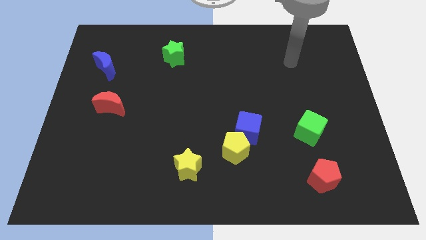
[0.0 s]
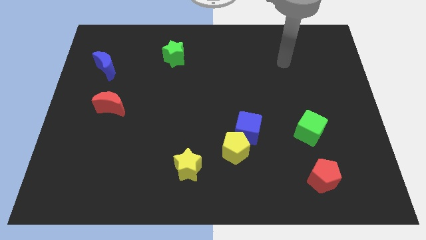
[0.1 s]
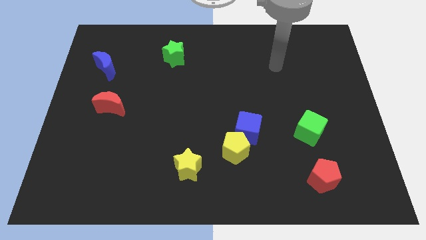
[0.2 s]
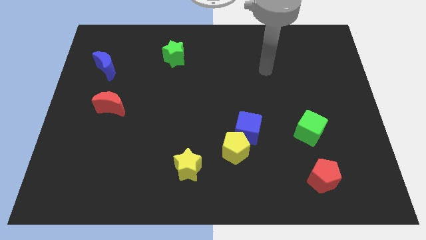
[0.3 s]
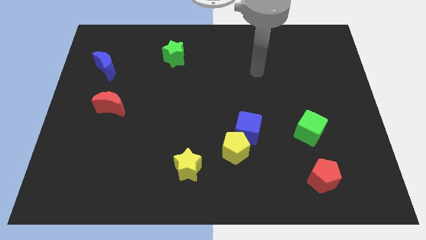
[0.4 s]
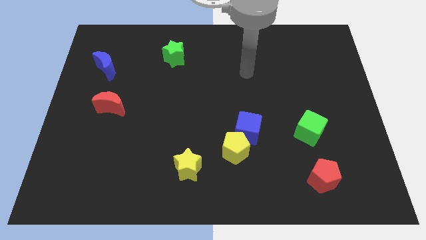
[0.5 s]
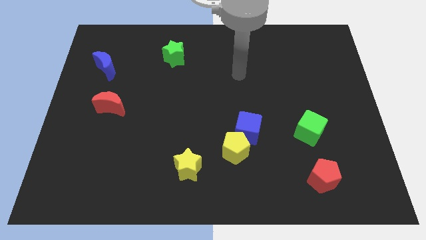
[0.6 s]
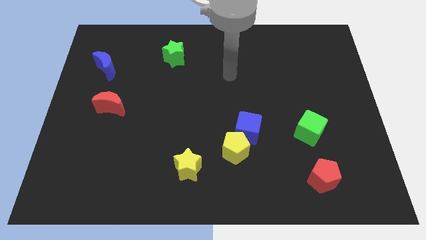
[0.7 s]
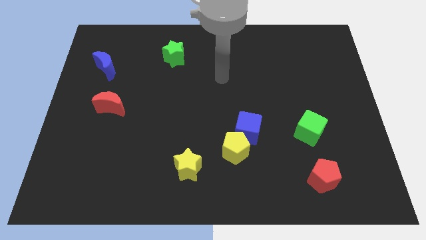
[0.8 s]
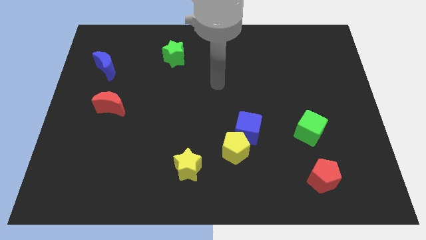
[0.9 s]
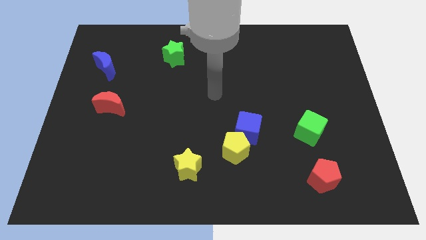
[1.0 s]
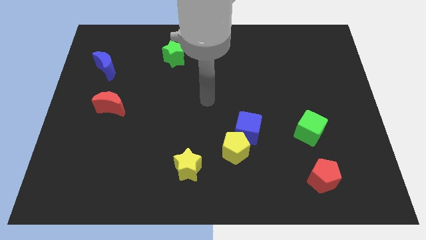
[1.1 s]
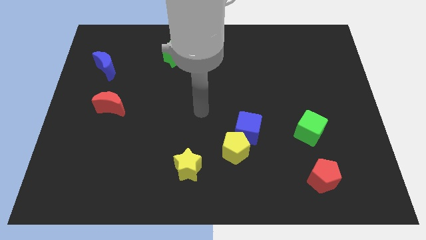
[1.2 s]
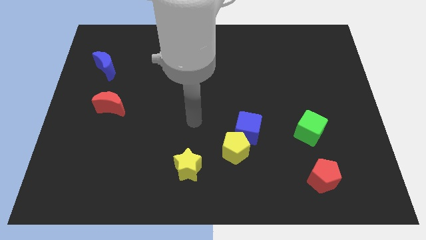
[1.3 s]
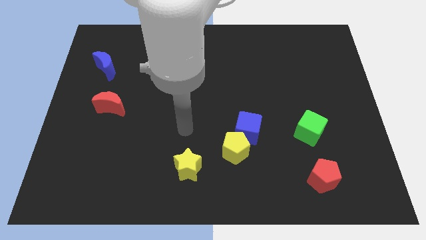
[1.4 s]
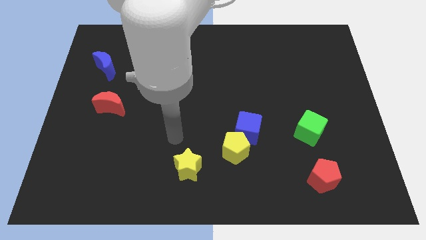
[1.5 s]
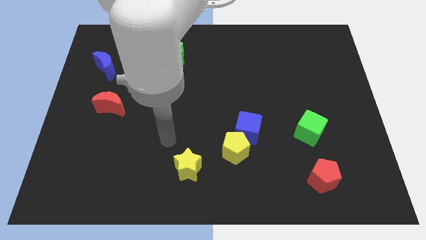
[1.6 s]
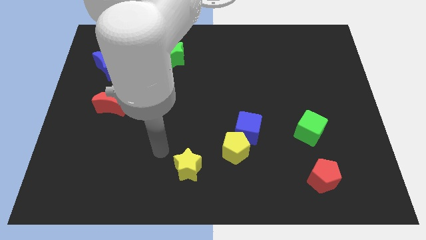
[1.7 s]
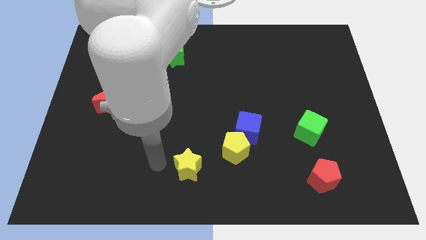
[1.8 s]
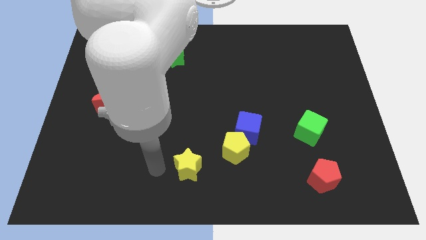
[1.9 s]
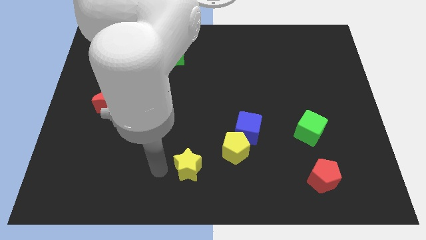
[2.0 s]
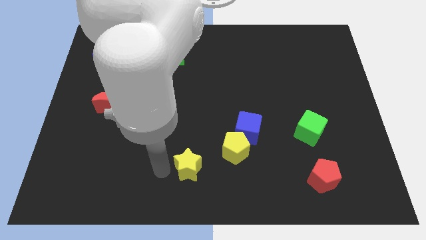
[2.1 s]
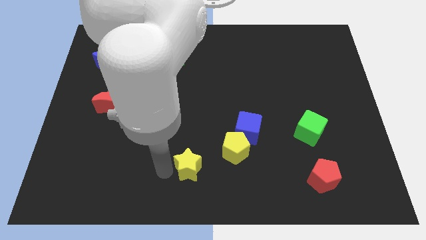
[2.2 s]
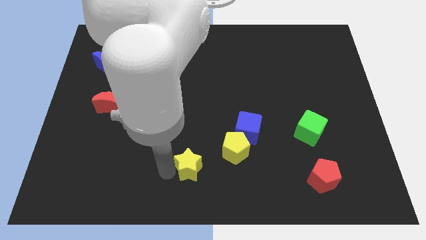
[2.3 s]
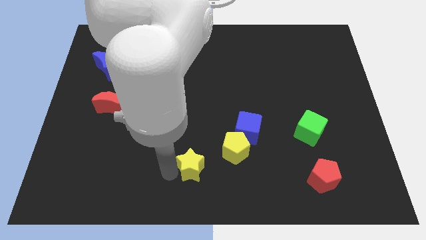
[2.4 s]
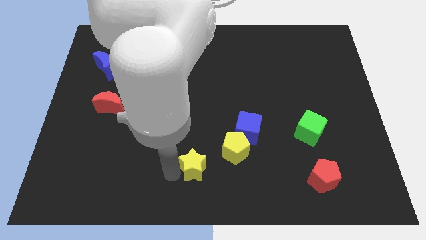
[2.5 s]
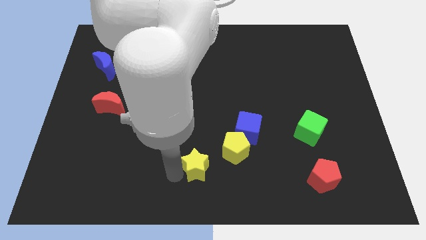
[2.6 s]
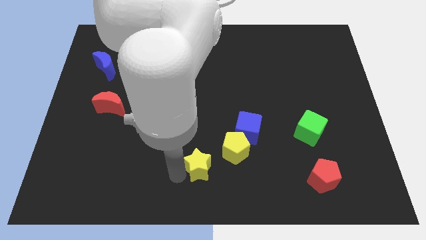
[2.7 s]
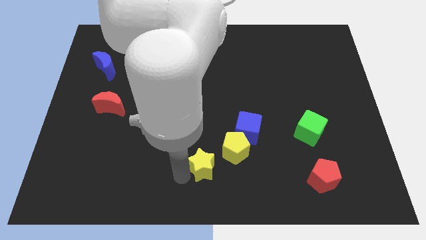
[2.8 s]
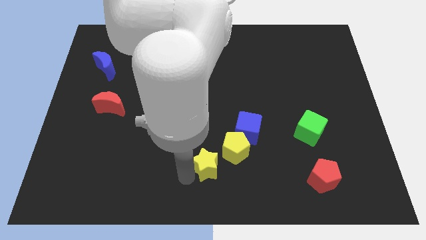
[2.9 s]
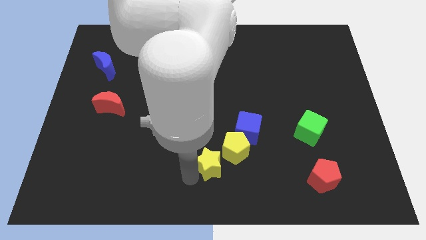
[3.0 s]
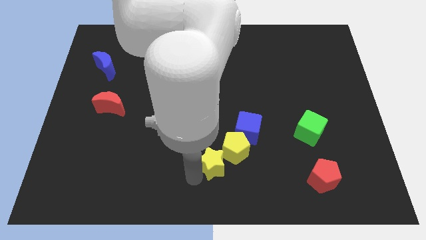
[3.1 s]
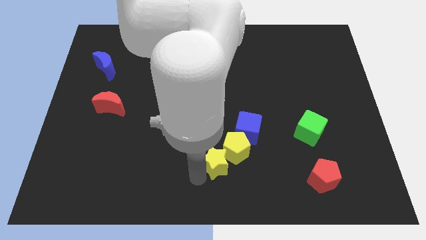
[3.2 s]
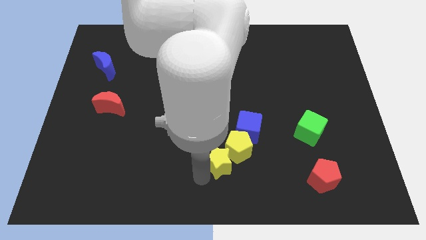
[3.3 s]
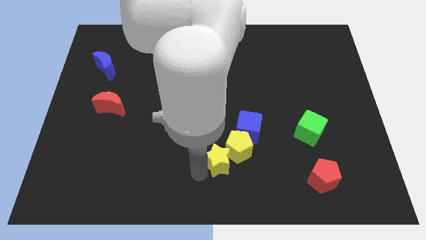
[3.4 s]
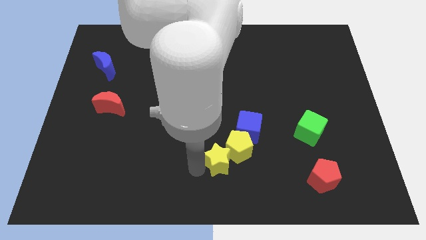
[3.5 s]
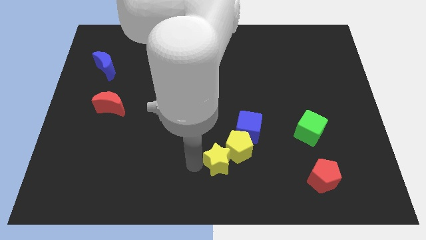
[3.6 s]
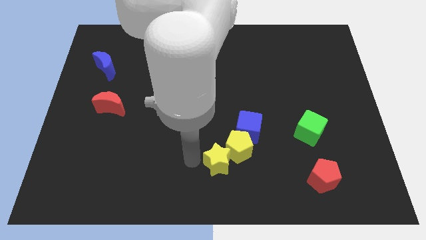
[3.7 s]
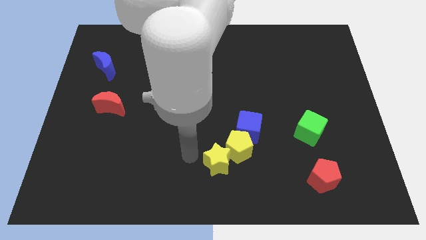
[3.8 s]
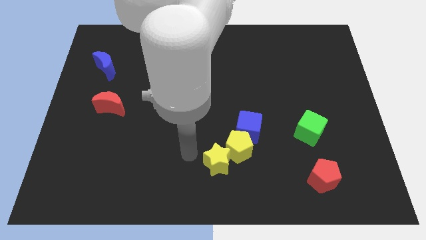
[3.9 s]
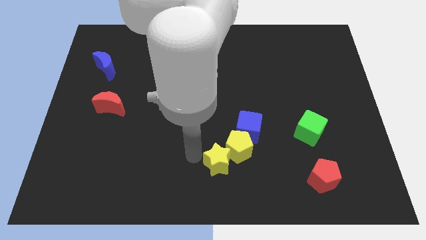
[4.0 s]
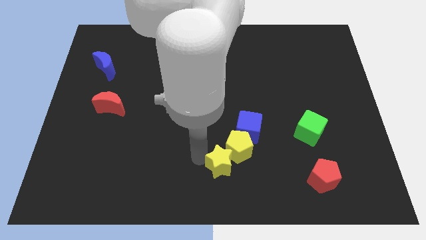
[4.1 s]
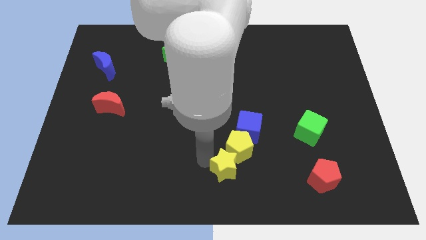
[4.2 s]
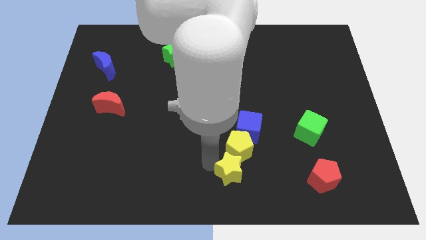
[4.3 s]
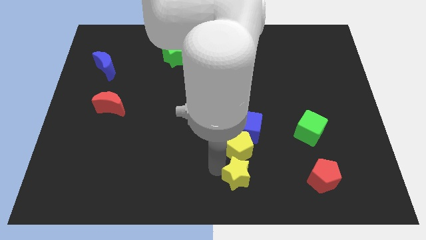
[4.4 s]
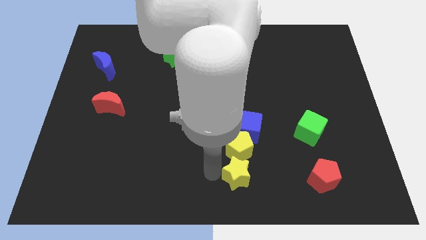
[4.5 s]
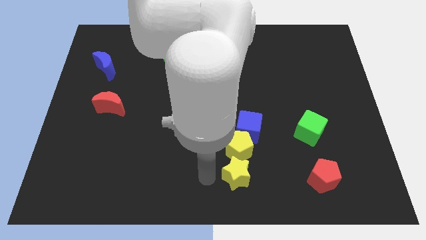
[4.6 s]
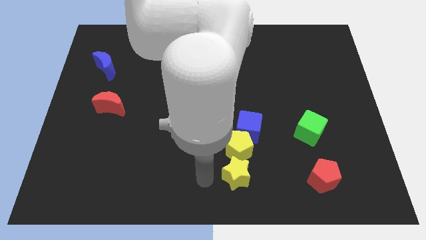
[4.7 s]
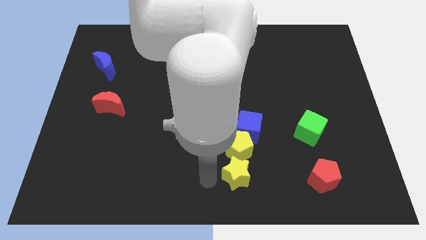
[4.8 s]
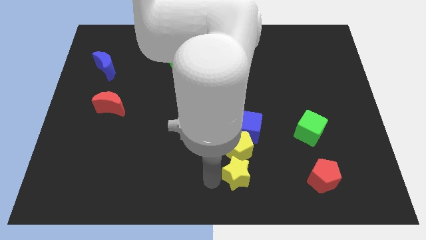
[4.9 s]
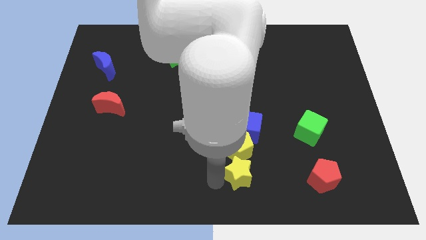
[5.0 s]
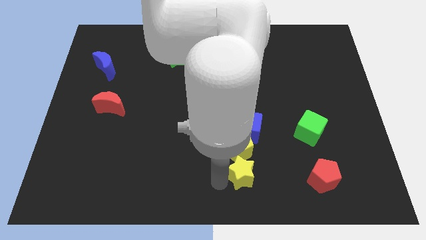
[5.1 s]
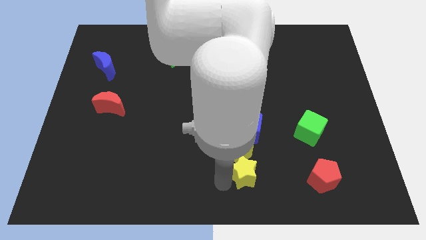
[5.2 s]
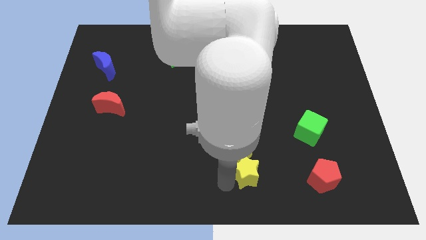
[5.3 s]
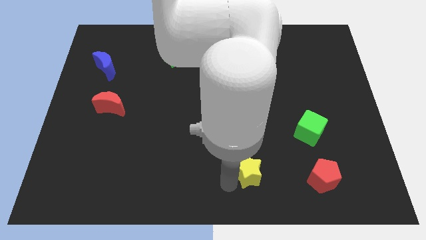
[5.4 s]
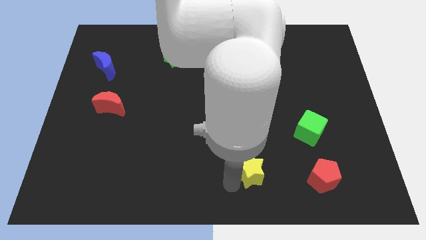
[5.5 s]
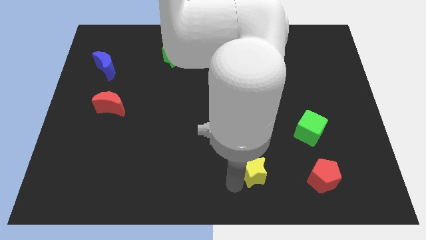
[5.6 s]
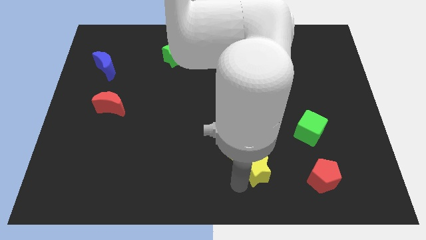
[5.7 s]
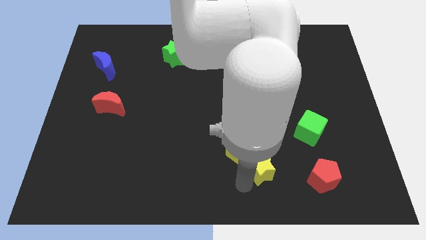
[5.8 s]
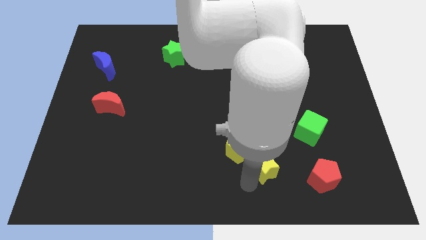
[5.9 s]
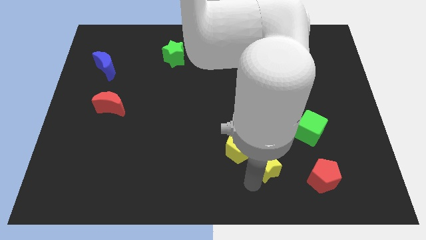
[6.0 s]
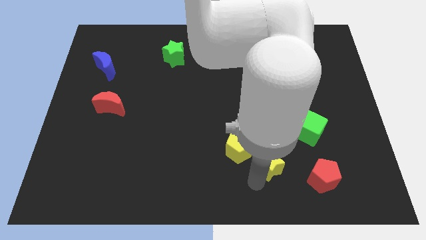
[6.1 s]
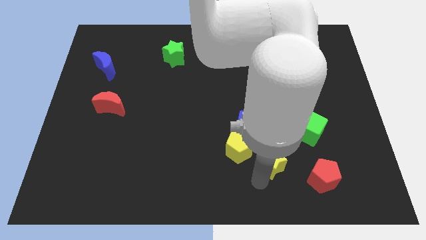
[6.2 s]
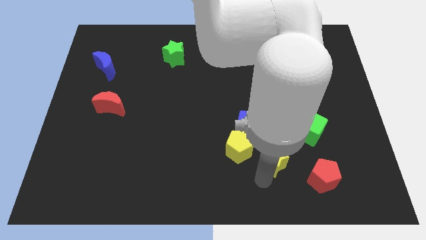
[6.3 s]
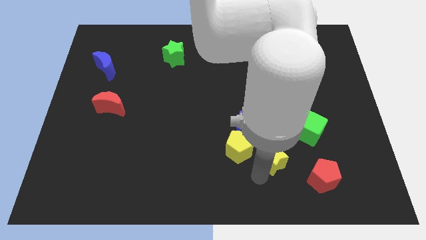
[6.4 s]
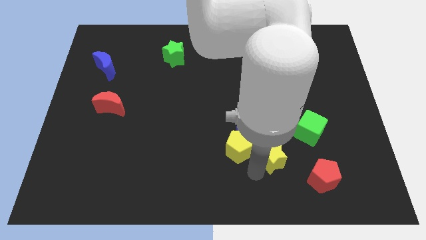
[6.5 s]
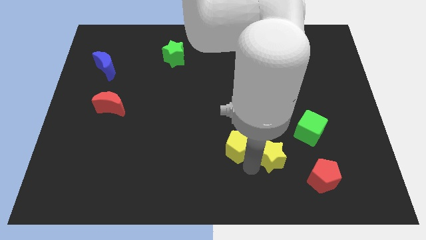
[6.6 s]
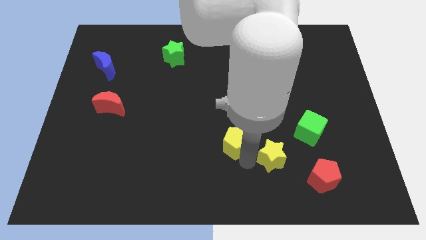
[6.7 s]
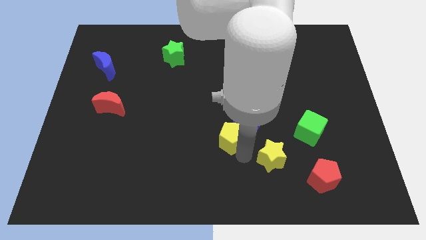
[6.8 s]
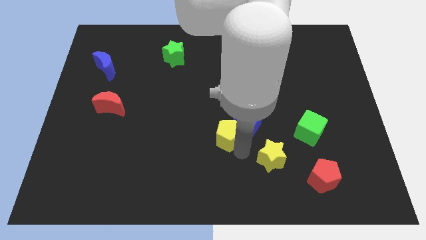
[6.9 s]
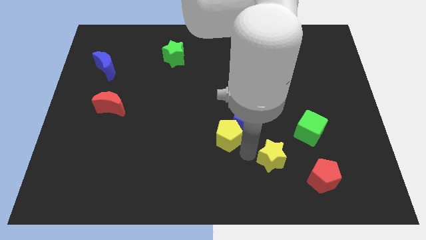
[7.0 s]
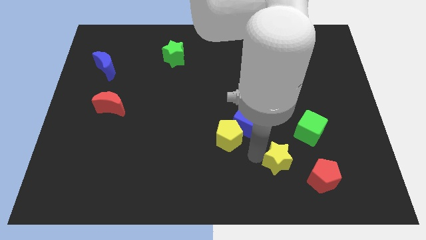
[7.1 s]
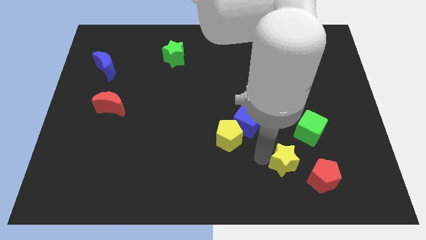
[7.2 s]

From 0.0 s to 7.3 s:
push the yellow star to the right

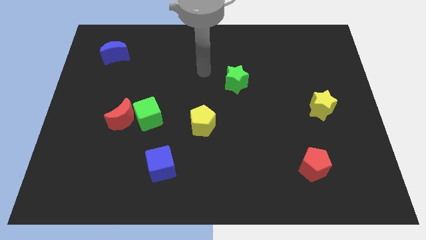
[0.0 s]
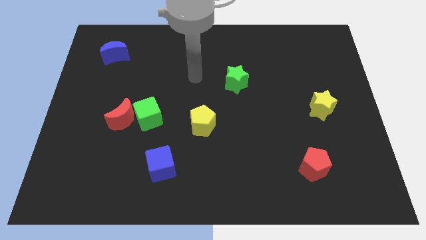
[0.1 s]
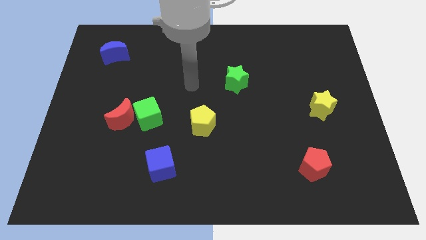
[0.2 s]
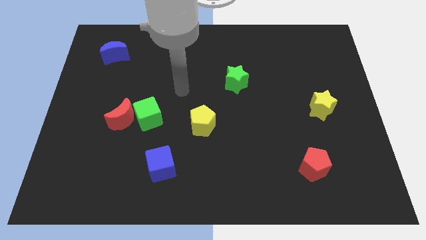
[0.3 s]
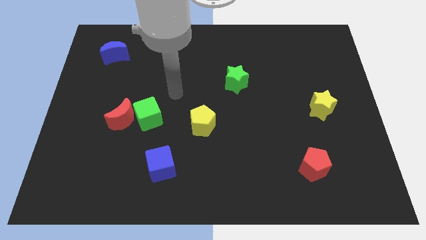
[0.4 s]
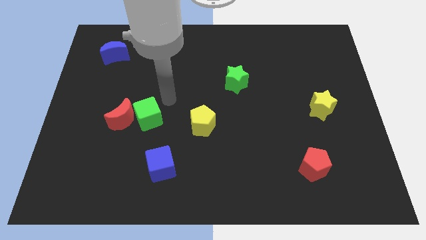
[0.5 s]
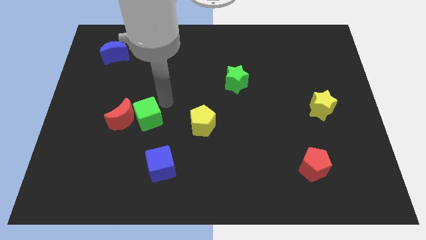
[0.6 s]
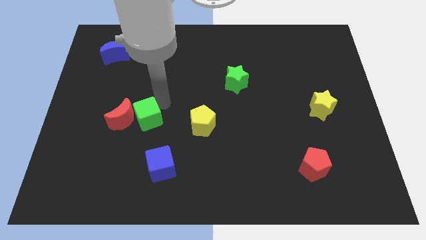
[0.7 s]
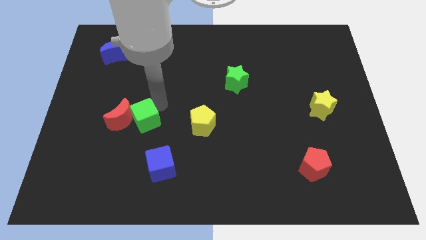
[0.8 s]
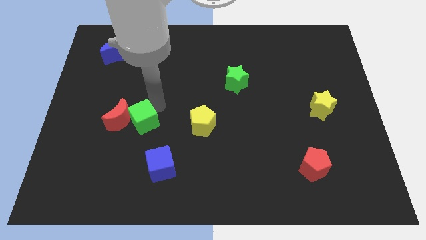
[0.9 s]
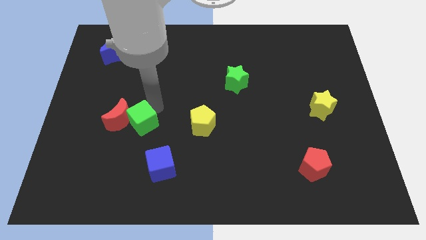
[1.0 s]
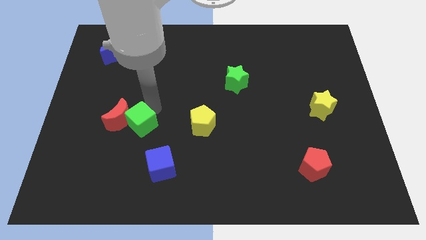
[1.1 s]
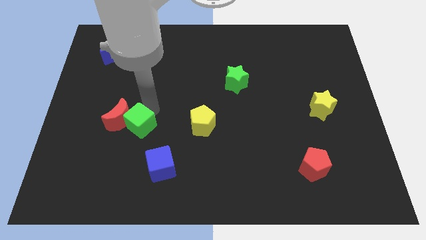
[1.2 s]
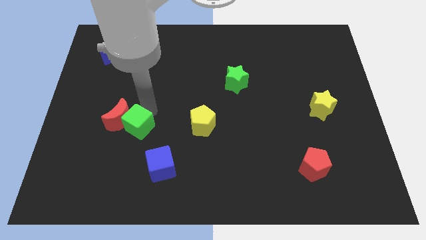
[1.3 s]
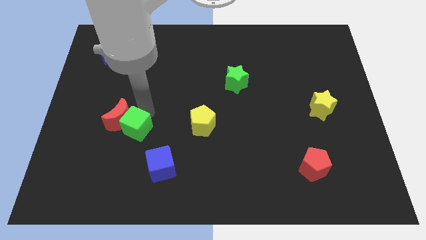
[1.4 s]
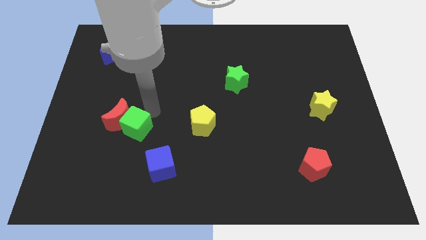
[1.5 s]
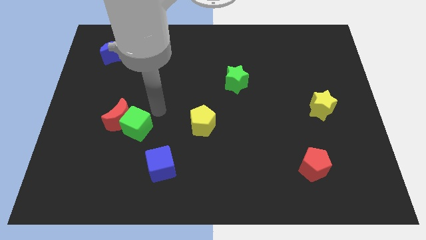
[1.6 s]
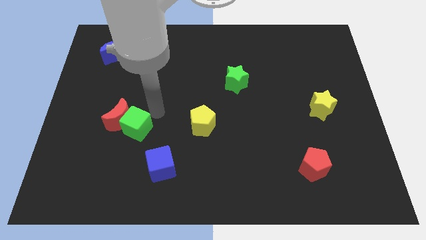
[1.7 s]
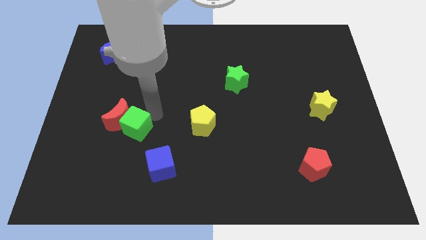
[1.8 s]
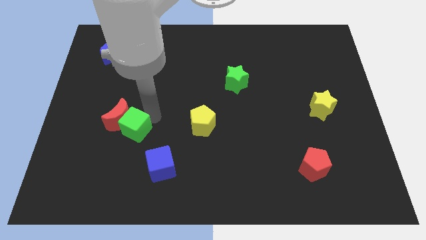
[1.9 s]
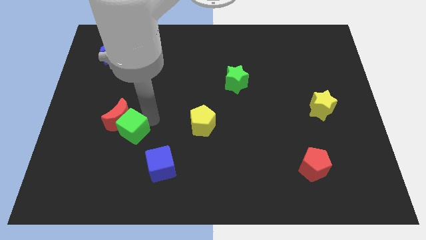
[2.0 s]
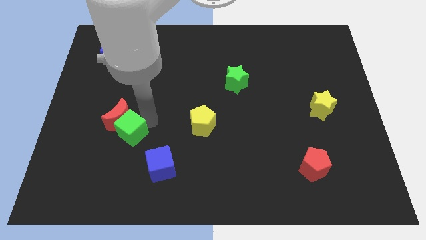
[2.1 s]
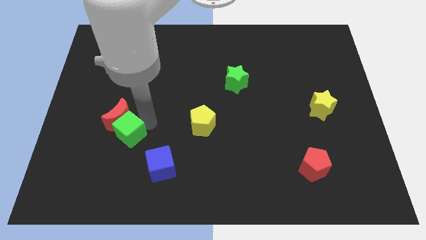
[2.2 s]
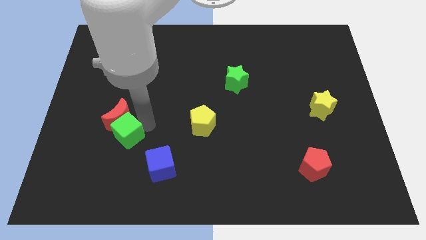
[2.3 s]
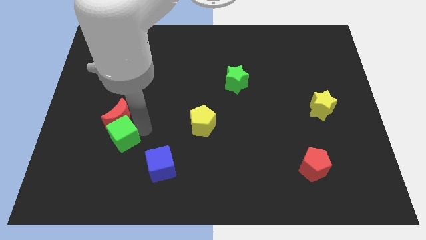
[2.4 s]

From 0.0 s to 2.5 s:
push the green cube downwards and then to the left a little
